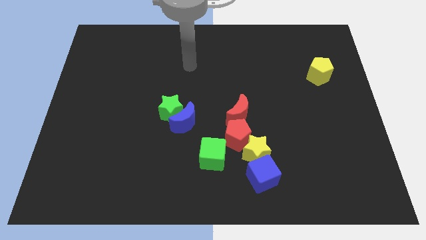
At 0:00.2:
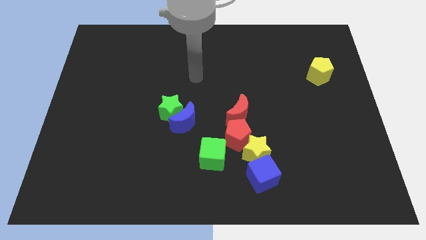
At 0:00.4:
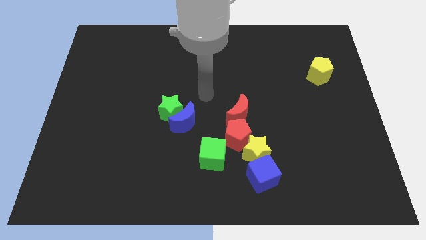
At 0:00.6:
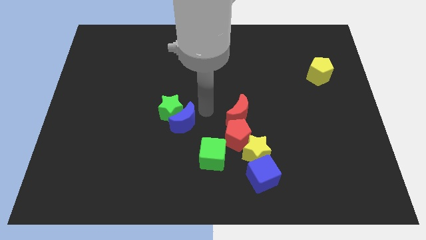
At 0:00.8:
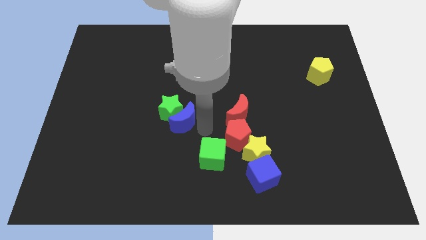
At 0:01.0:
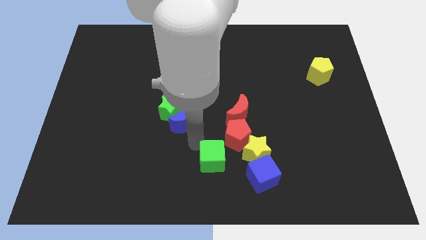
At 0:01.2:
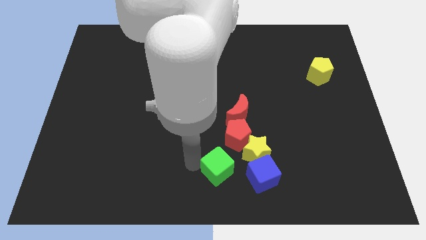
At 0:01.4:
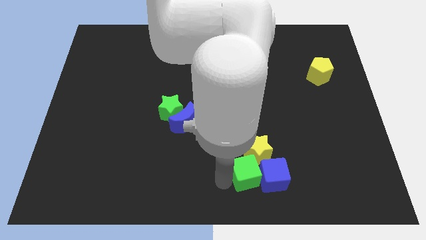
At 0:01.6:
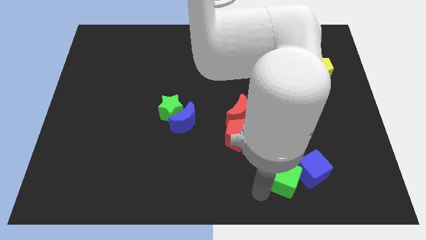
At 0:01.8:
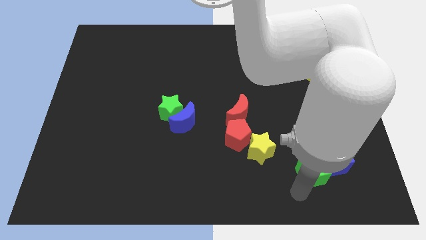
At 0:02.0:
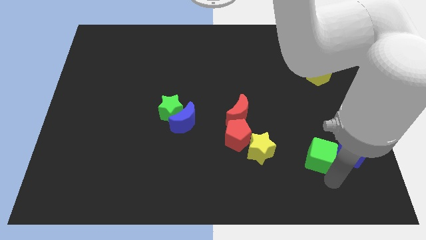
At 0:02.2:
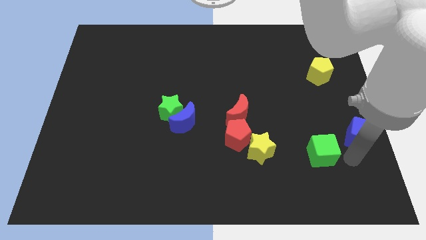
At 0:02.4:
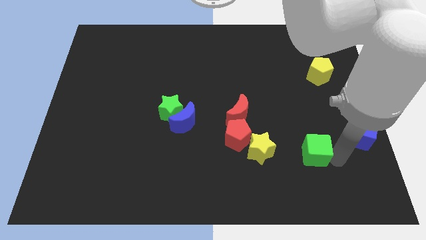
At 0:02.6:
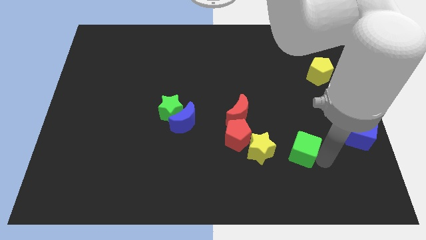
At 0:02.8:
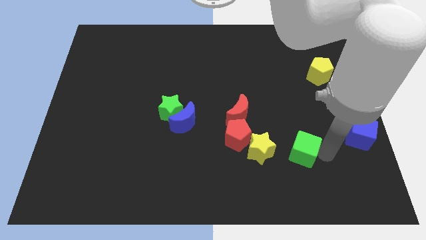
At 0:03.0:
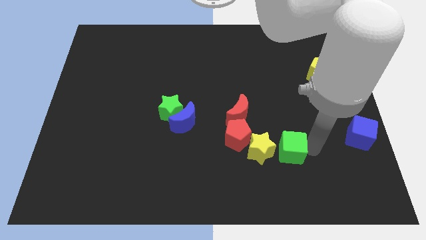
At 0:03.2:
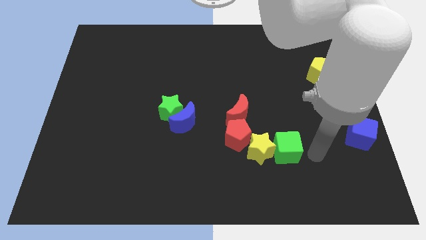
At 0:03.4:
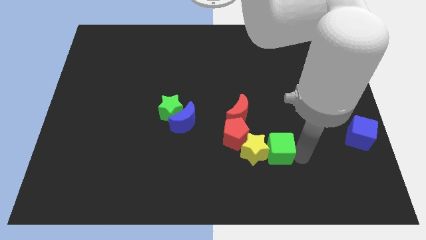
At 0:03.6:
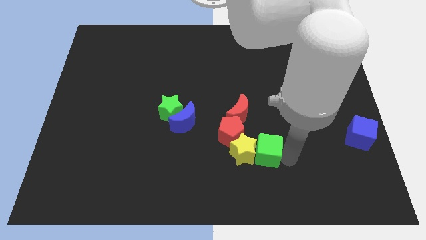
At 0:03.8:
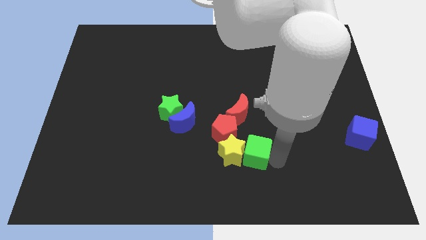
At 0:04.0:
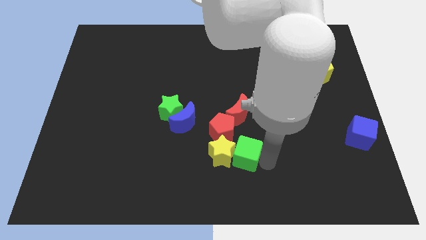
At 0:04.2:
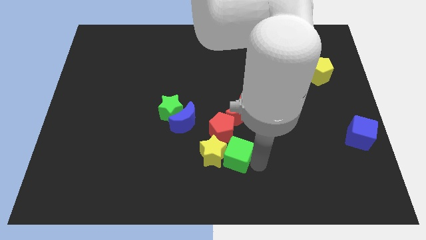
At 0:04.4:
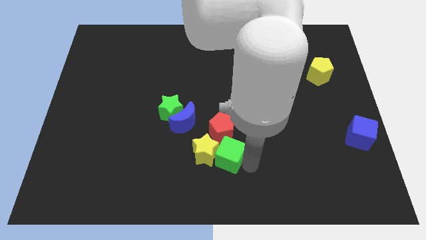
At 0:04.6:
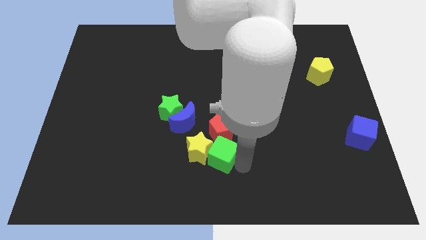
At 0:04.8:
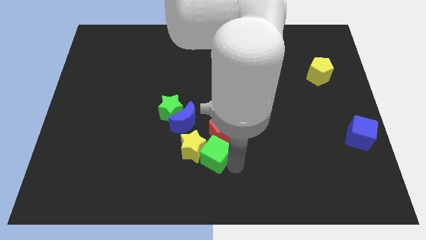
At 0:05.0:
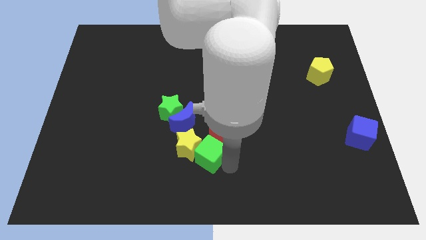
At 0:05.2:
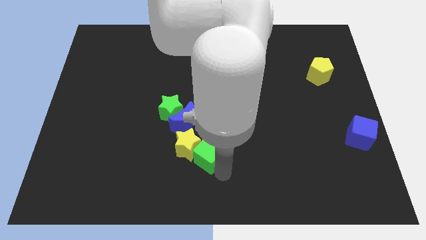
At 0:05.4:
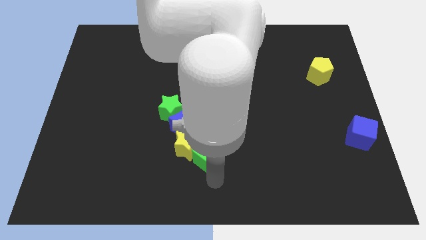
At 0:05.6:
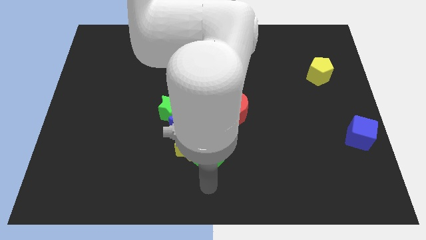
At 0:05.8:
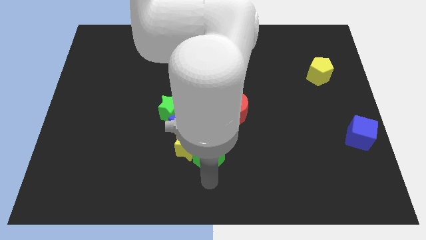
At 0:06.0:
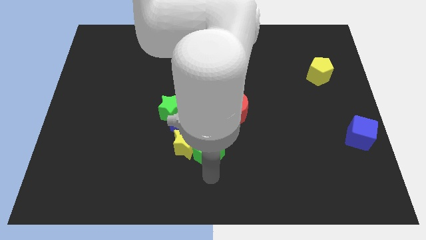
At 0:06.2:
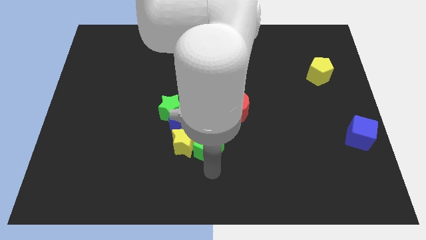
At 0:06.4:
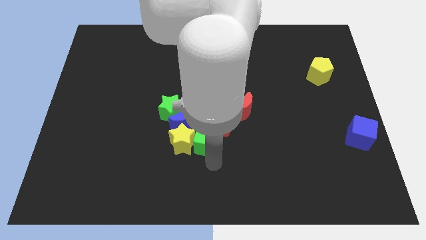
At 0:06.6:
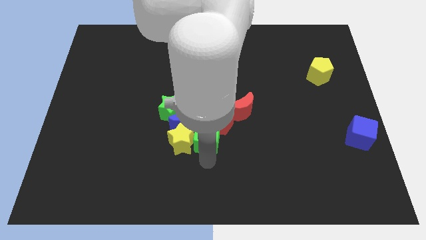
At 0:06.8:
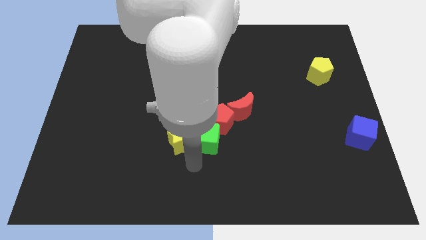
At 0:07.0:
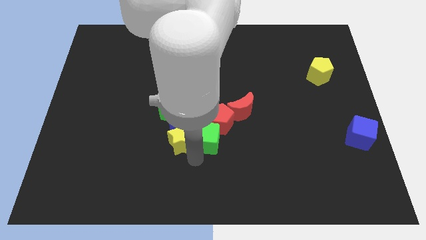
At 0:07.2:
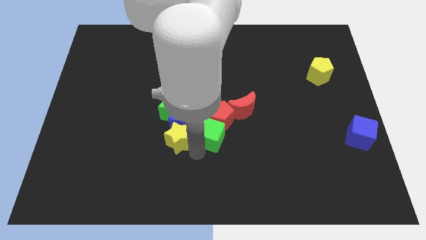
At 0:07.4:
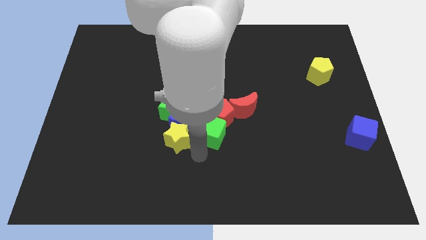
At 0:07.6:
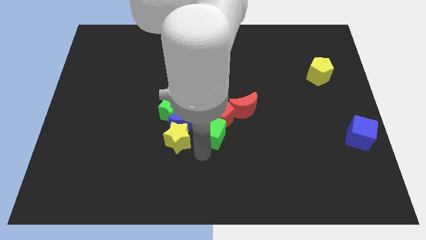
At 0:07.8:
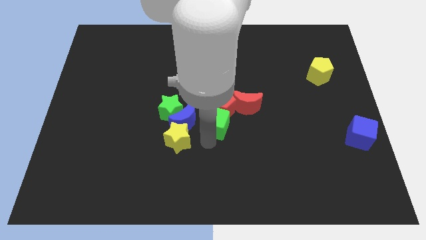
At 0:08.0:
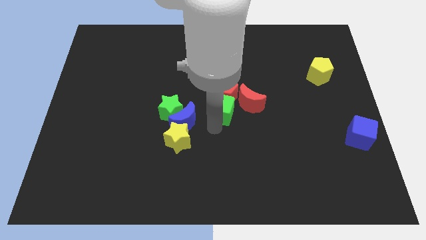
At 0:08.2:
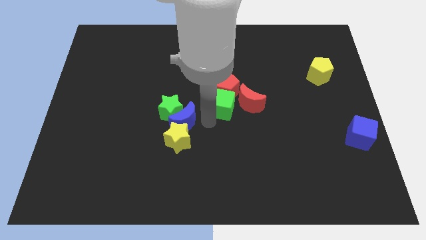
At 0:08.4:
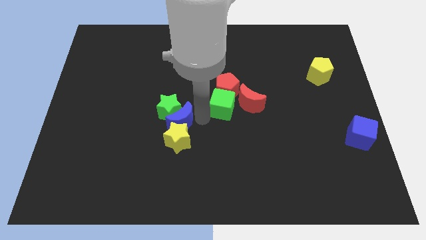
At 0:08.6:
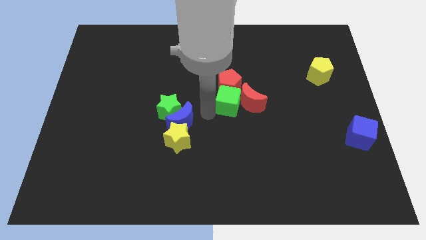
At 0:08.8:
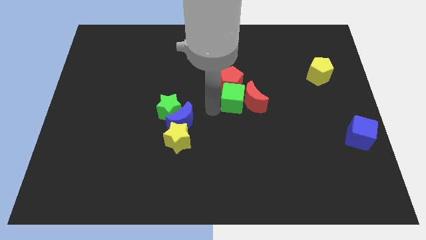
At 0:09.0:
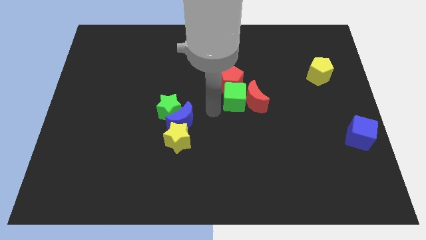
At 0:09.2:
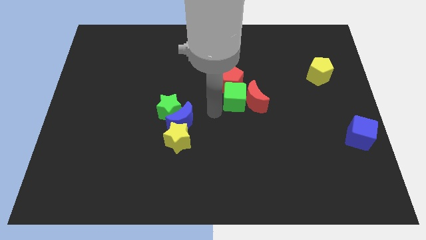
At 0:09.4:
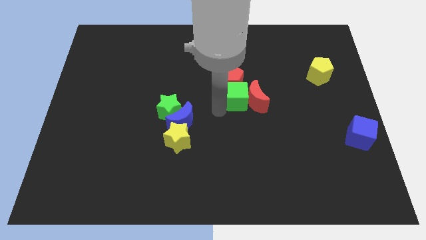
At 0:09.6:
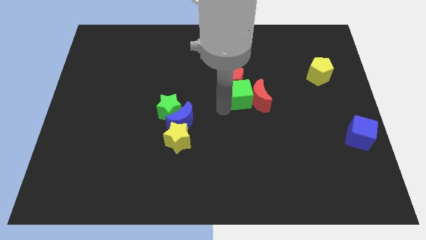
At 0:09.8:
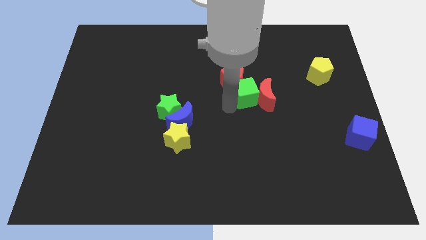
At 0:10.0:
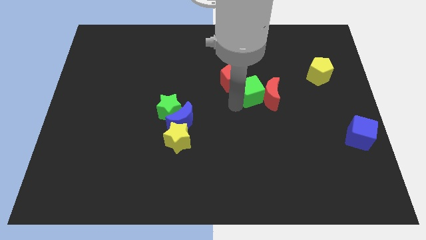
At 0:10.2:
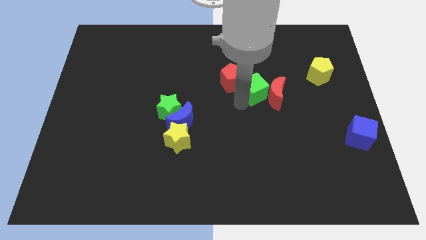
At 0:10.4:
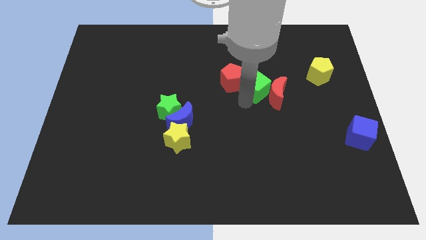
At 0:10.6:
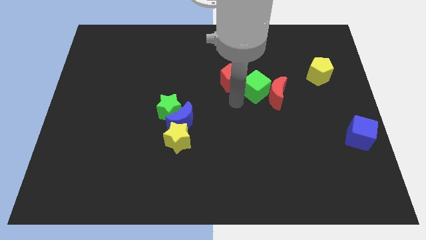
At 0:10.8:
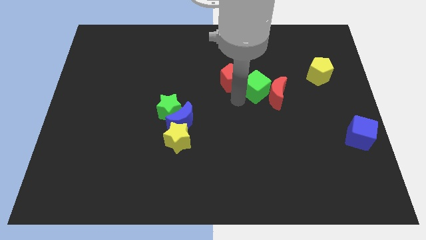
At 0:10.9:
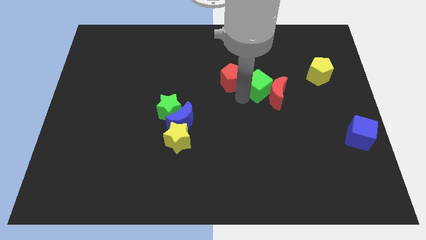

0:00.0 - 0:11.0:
move the green cube up and right diagonally

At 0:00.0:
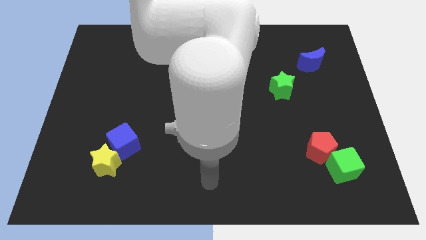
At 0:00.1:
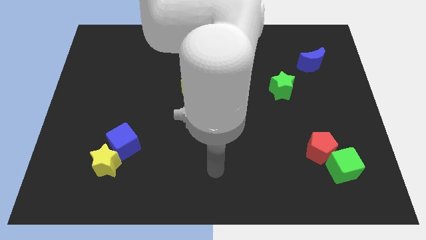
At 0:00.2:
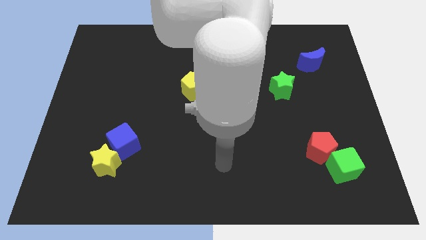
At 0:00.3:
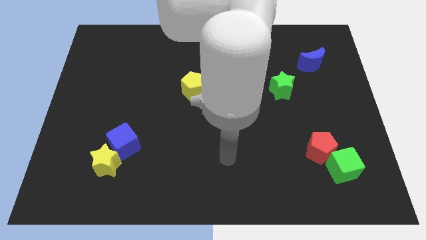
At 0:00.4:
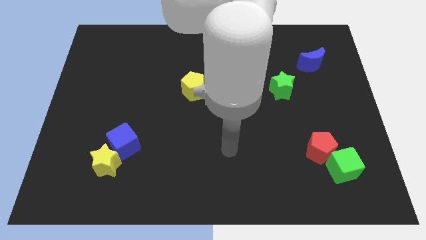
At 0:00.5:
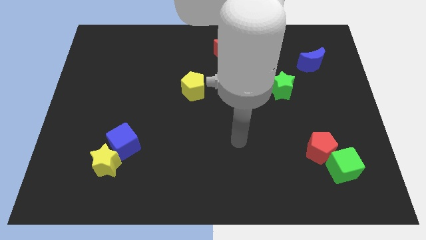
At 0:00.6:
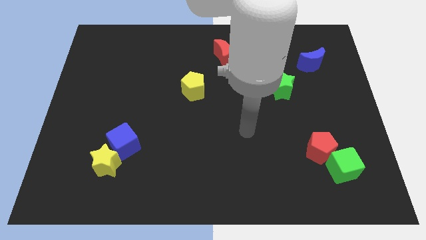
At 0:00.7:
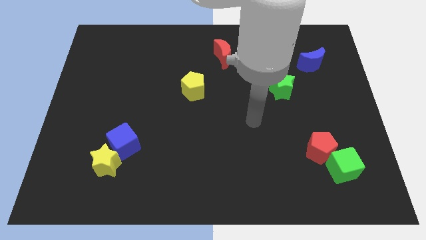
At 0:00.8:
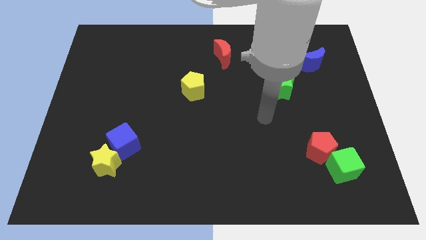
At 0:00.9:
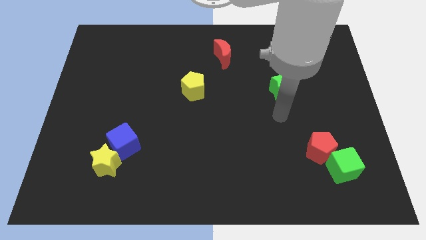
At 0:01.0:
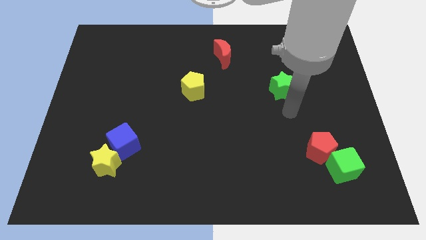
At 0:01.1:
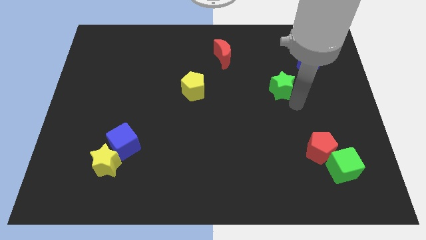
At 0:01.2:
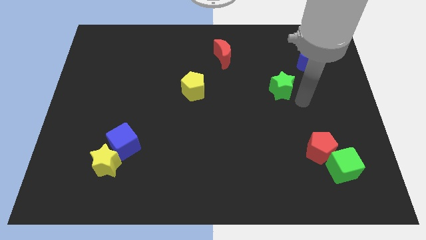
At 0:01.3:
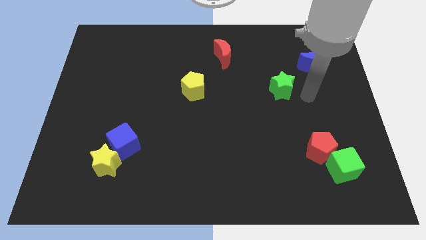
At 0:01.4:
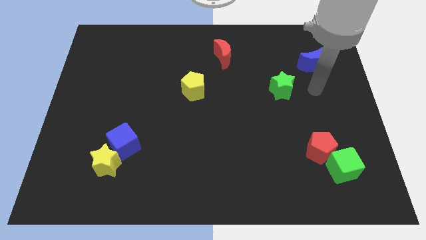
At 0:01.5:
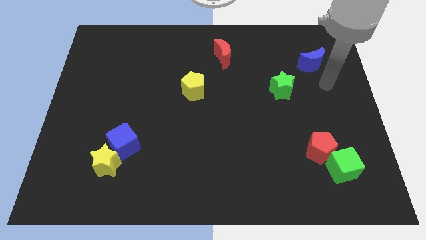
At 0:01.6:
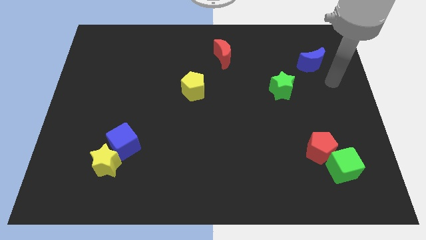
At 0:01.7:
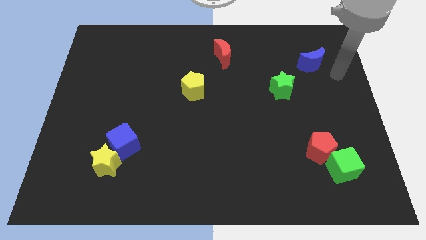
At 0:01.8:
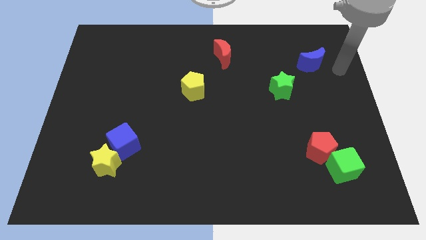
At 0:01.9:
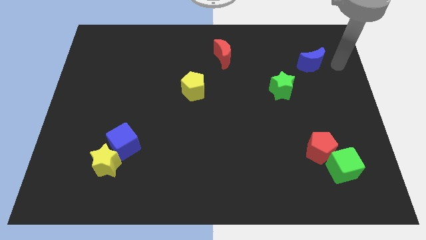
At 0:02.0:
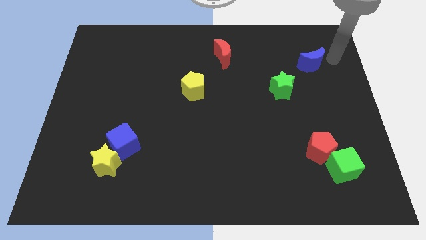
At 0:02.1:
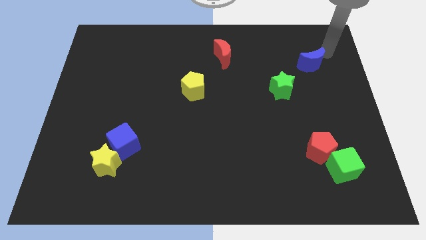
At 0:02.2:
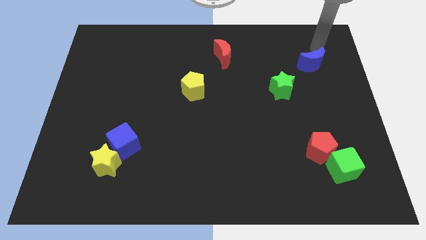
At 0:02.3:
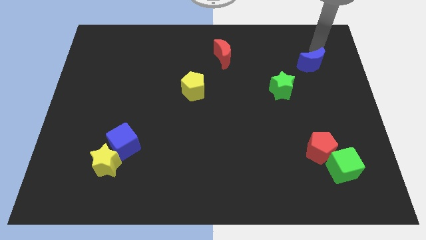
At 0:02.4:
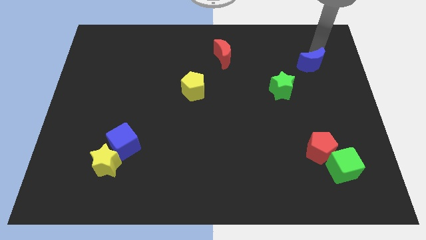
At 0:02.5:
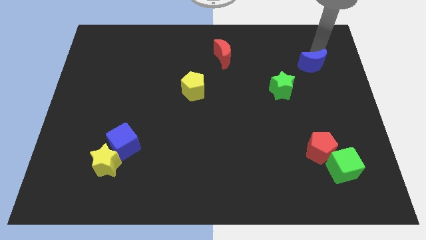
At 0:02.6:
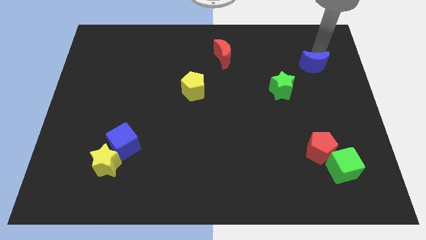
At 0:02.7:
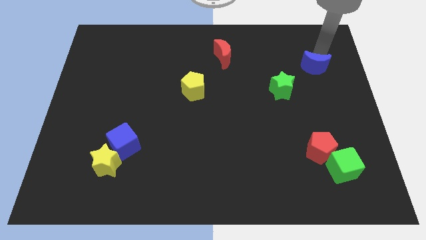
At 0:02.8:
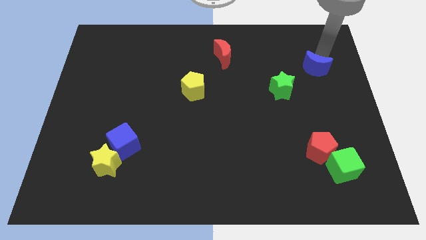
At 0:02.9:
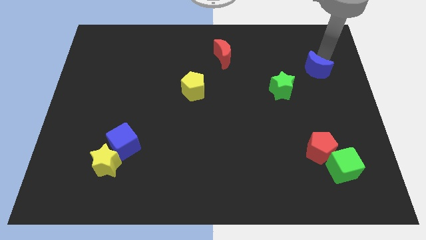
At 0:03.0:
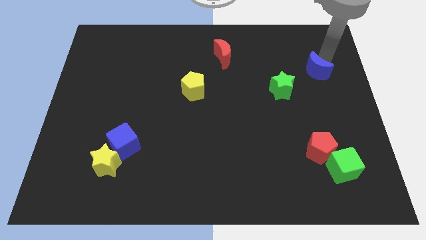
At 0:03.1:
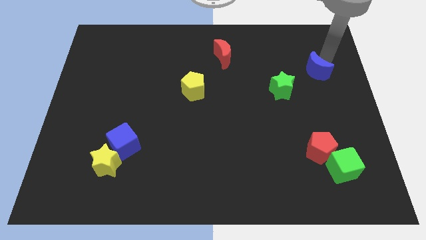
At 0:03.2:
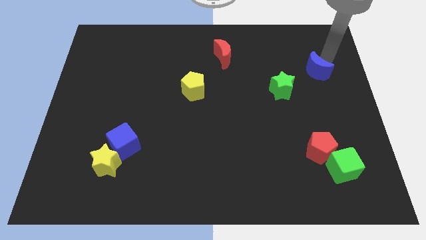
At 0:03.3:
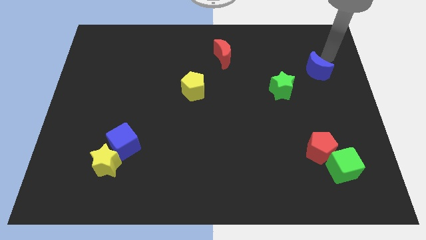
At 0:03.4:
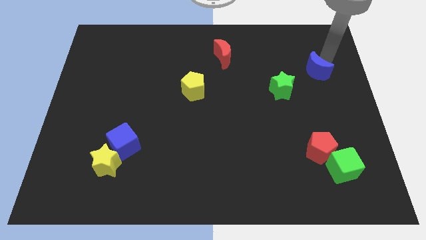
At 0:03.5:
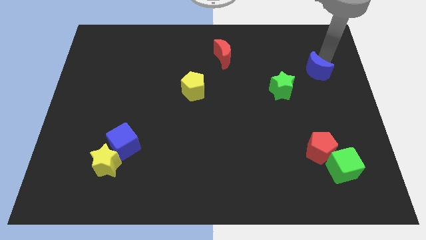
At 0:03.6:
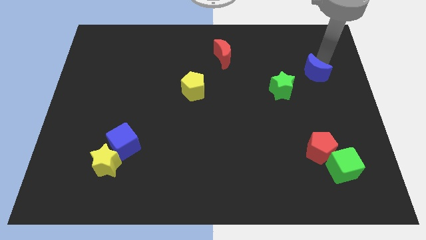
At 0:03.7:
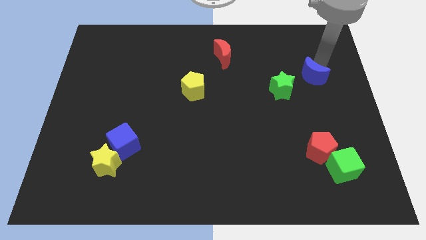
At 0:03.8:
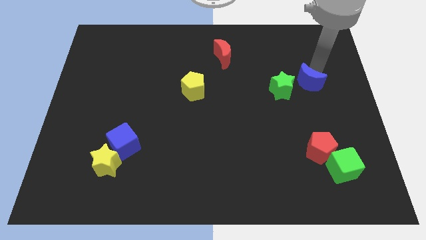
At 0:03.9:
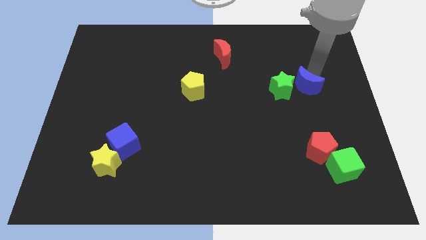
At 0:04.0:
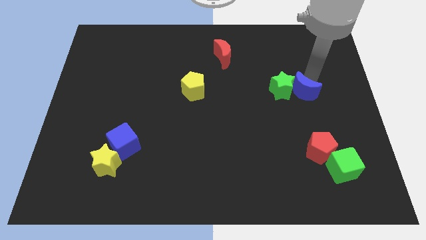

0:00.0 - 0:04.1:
slide the blue moon diagonally down and left a bit
